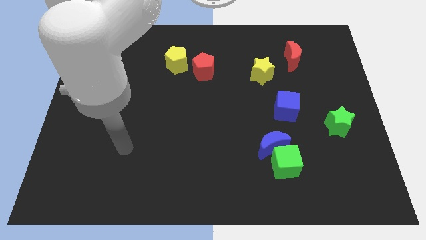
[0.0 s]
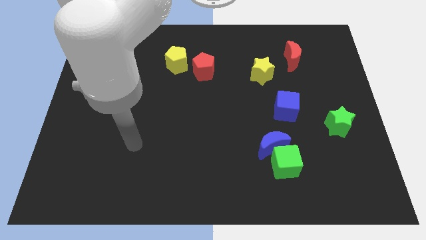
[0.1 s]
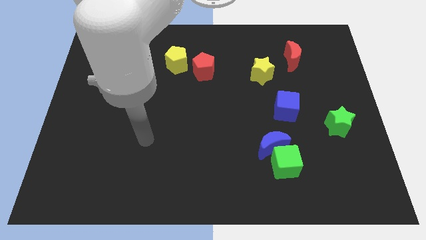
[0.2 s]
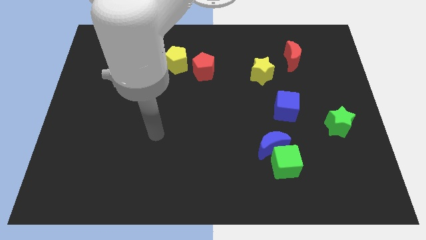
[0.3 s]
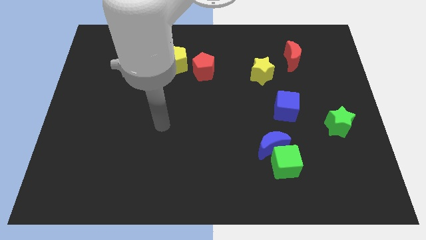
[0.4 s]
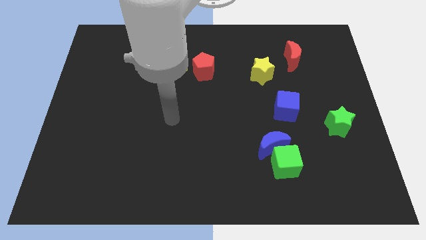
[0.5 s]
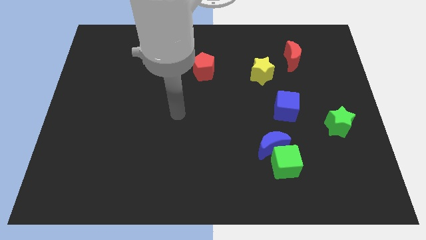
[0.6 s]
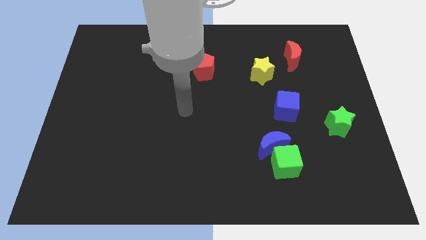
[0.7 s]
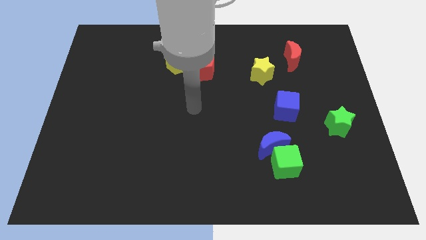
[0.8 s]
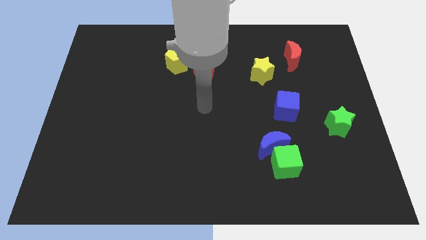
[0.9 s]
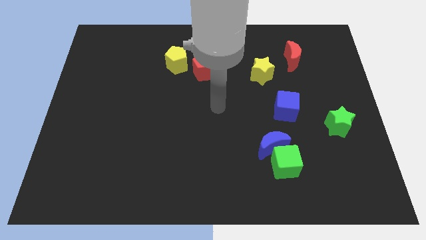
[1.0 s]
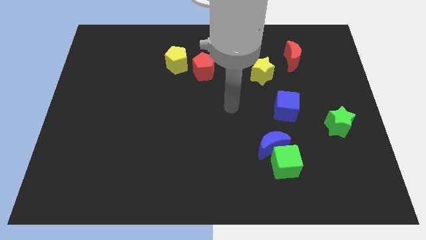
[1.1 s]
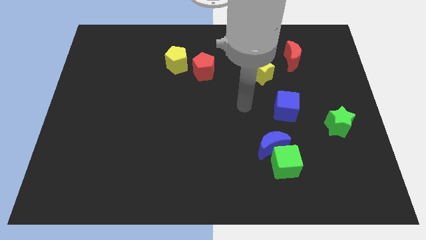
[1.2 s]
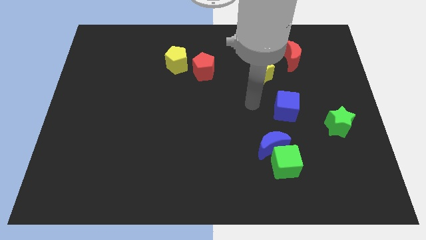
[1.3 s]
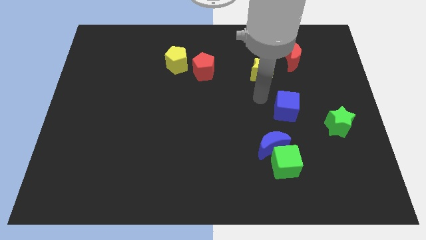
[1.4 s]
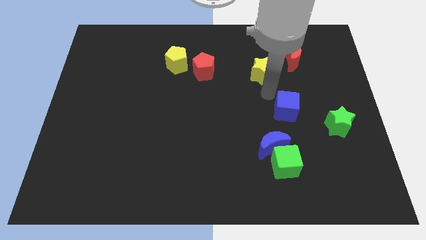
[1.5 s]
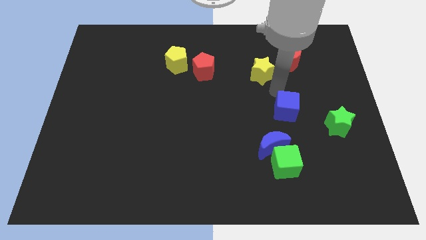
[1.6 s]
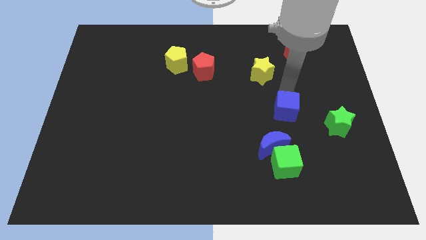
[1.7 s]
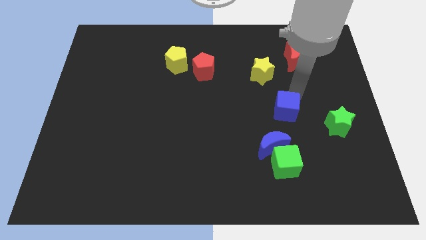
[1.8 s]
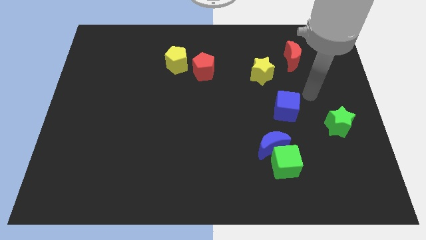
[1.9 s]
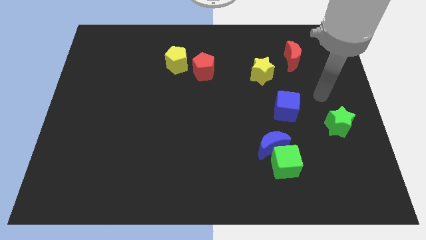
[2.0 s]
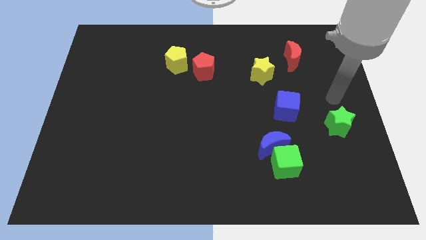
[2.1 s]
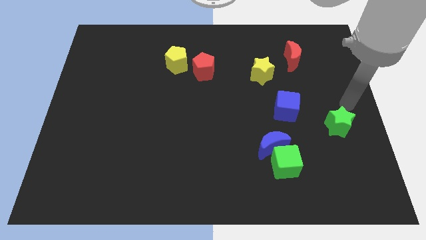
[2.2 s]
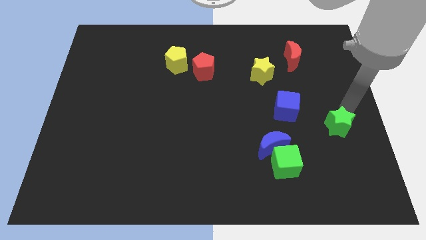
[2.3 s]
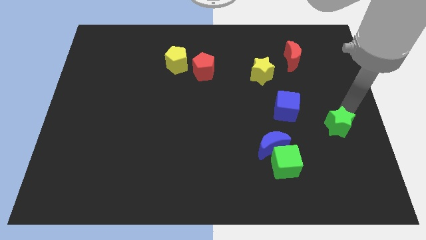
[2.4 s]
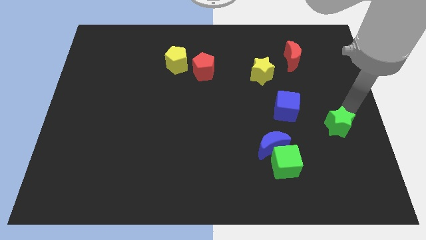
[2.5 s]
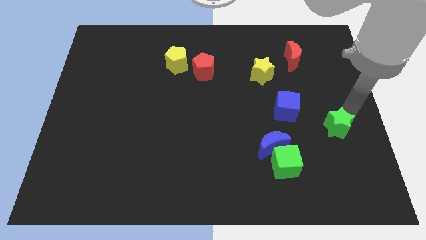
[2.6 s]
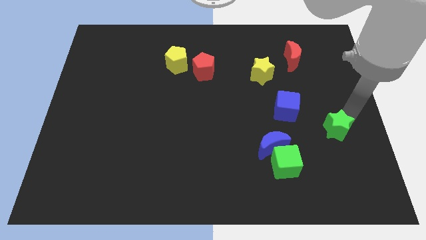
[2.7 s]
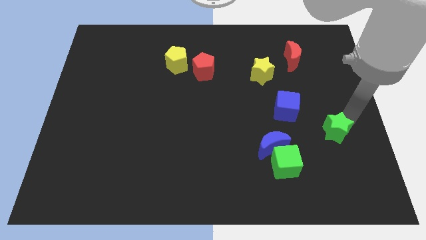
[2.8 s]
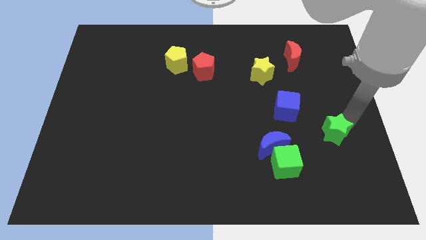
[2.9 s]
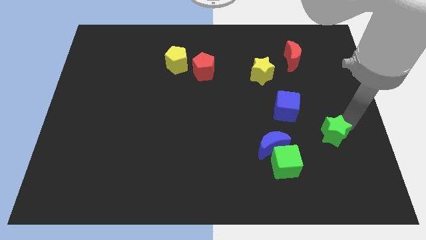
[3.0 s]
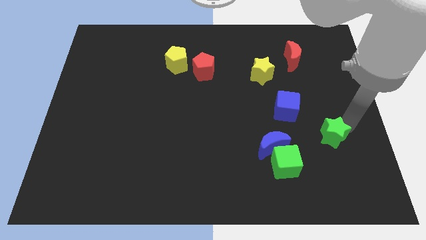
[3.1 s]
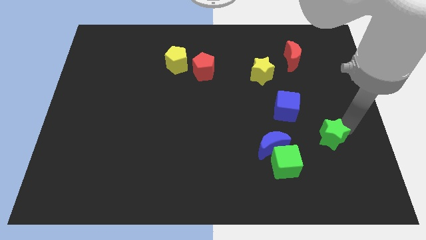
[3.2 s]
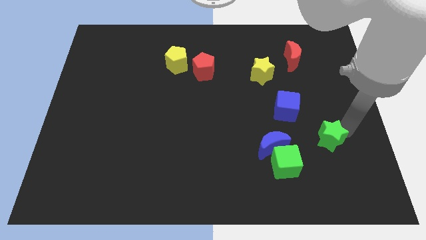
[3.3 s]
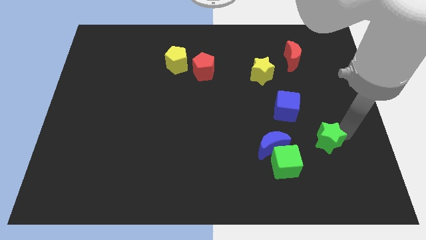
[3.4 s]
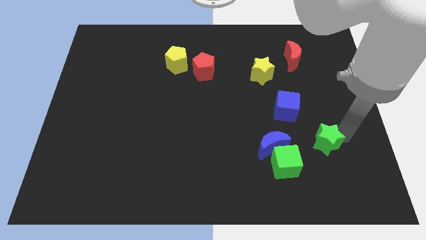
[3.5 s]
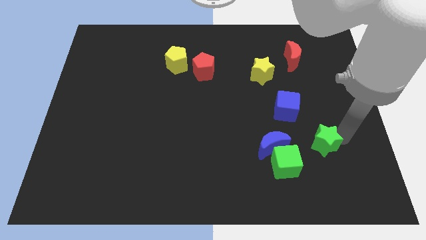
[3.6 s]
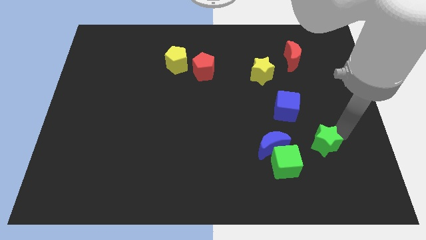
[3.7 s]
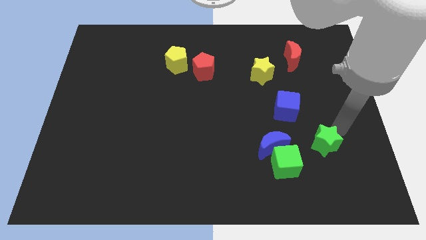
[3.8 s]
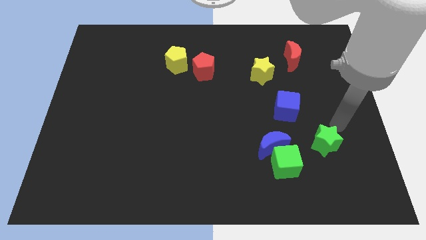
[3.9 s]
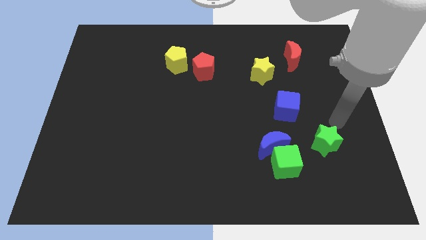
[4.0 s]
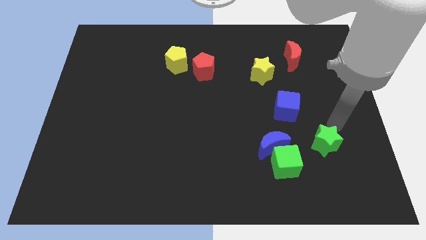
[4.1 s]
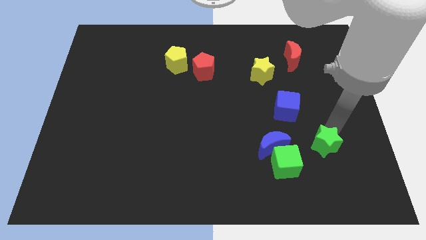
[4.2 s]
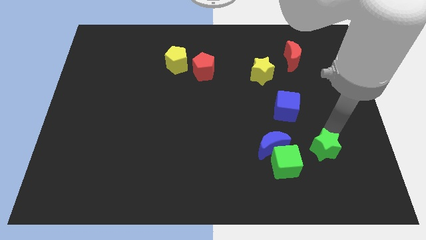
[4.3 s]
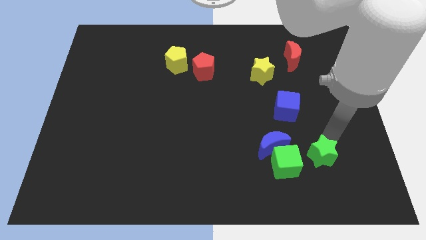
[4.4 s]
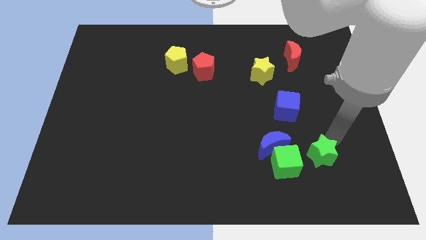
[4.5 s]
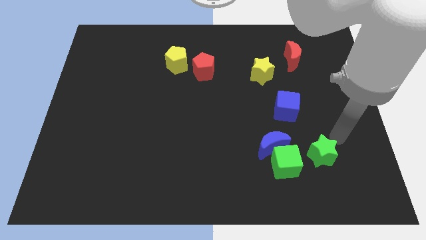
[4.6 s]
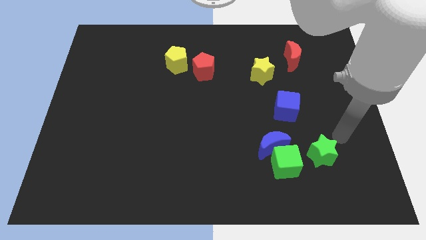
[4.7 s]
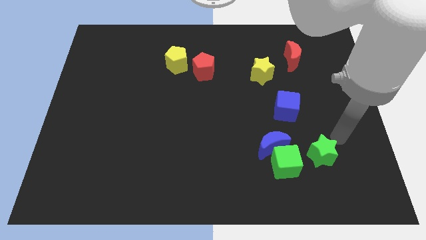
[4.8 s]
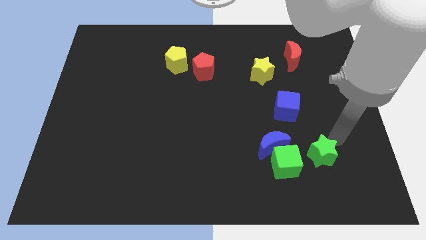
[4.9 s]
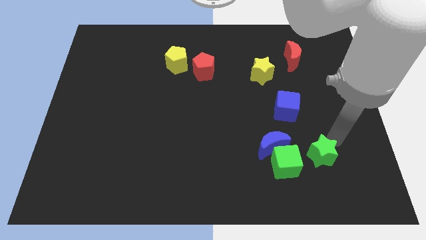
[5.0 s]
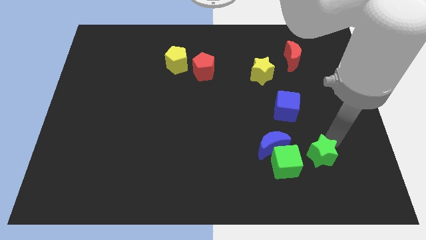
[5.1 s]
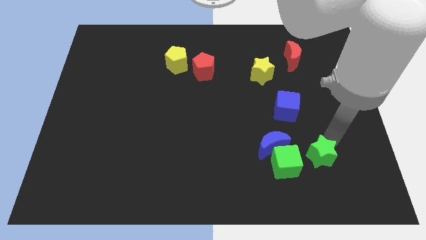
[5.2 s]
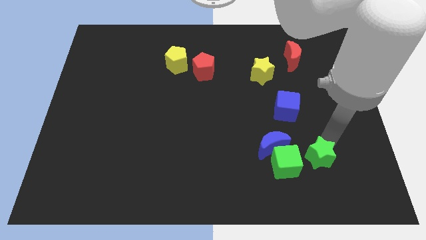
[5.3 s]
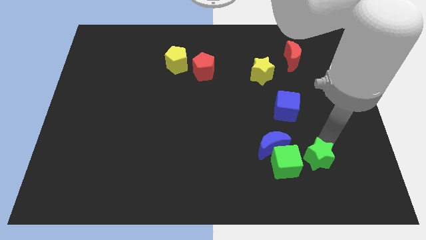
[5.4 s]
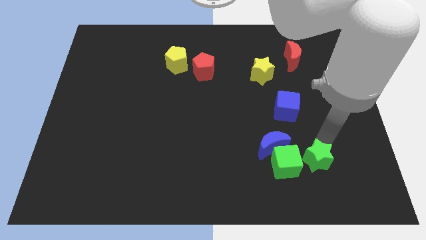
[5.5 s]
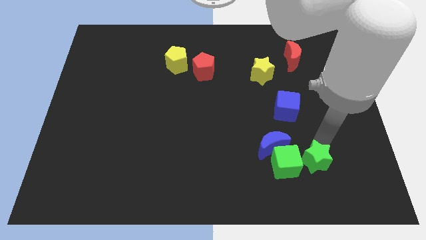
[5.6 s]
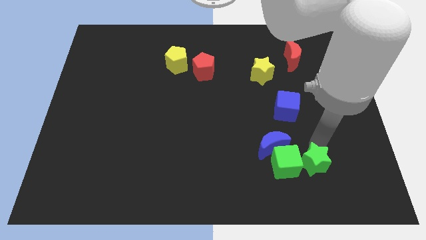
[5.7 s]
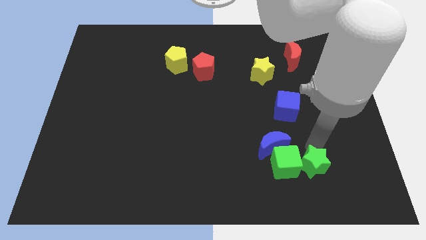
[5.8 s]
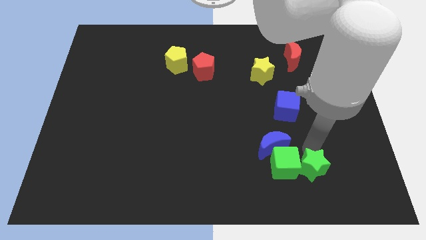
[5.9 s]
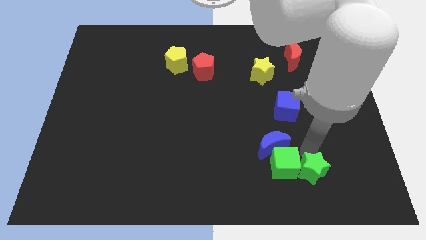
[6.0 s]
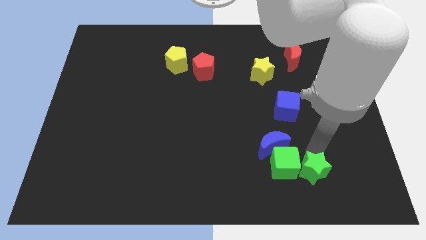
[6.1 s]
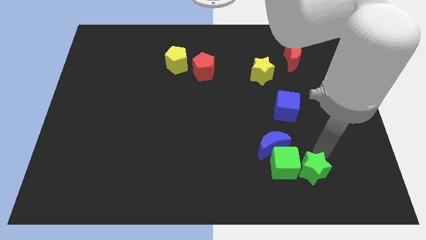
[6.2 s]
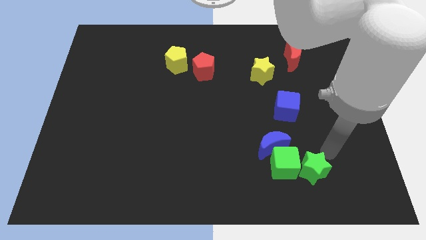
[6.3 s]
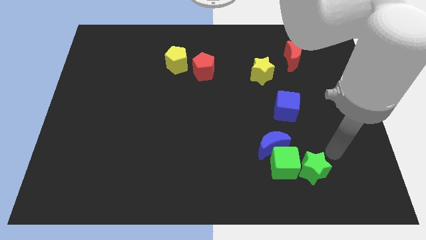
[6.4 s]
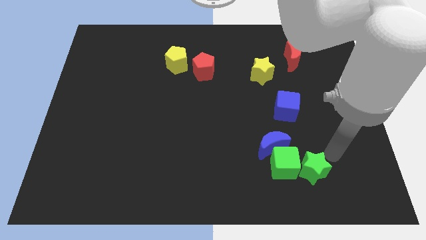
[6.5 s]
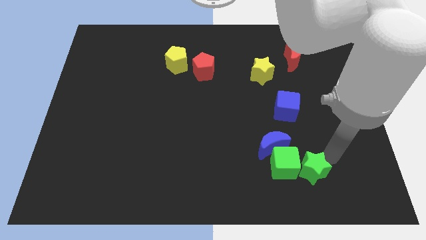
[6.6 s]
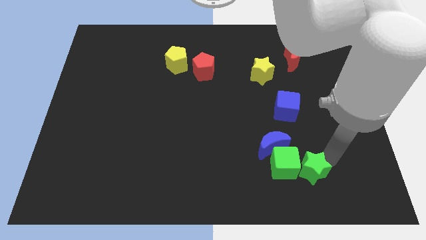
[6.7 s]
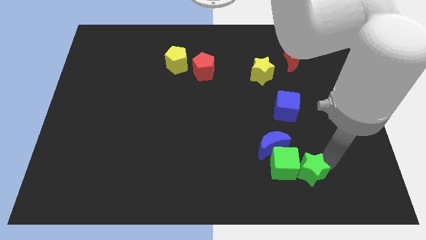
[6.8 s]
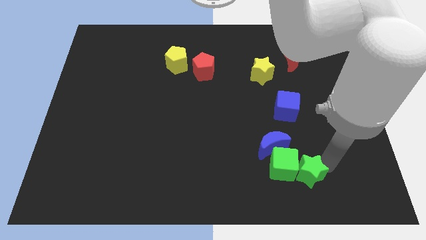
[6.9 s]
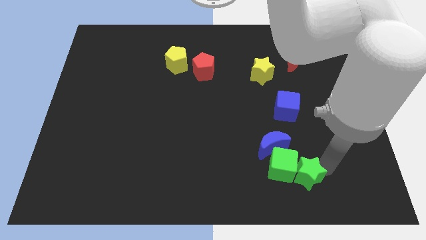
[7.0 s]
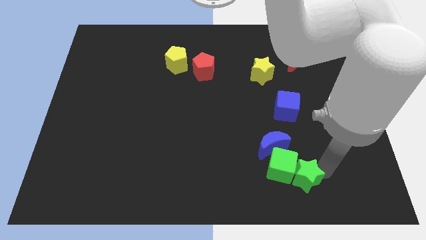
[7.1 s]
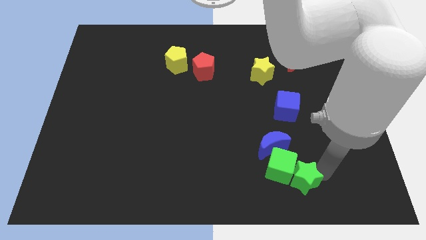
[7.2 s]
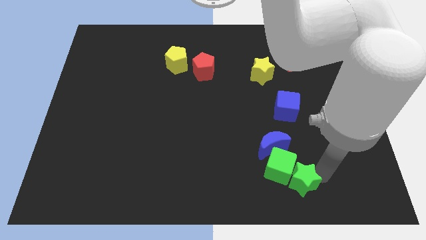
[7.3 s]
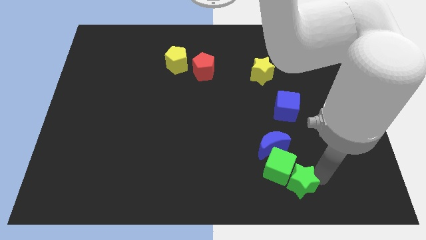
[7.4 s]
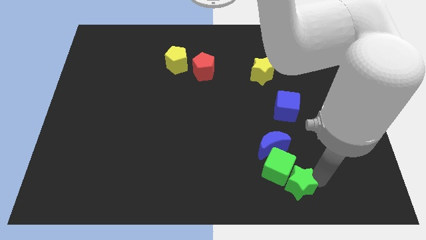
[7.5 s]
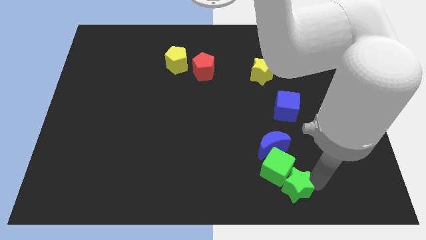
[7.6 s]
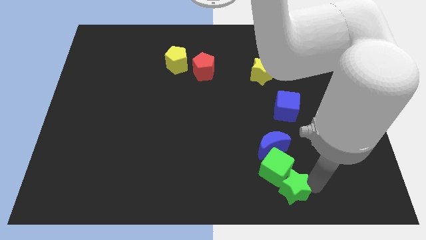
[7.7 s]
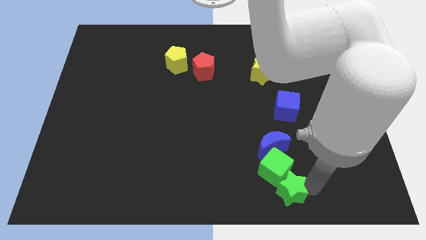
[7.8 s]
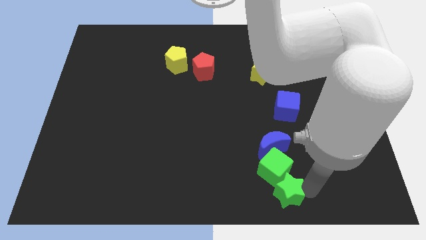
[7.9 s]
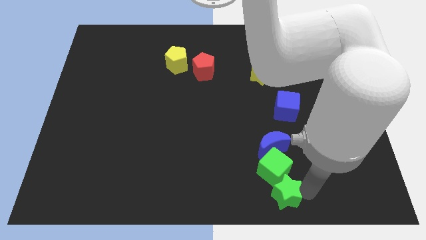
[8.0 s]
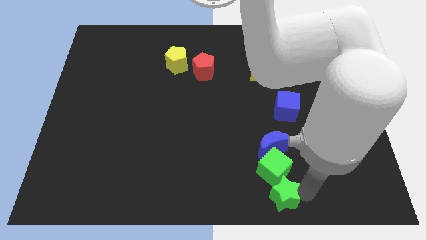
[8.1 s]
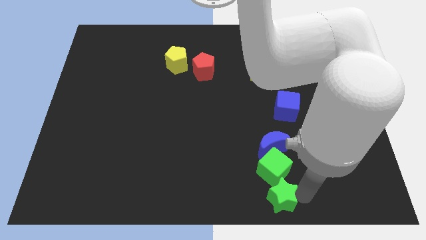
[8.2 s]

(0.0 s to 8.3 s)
push the green star to the bottom
